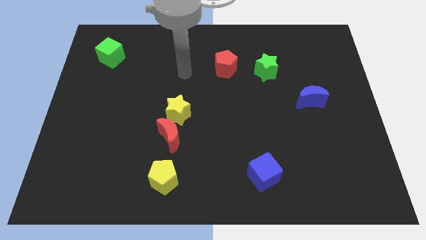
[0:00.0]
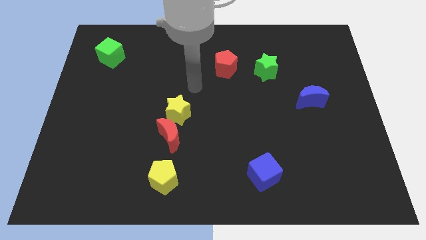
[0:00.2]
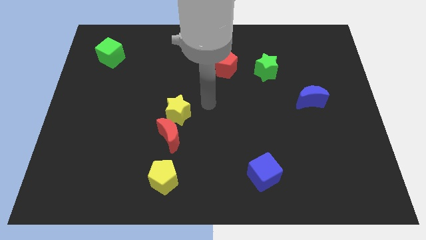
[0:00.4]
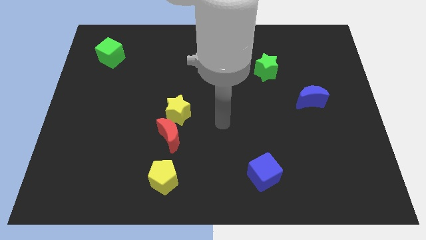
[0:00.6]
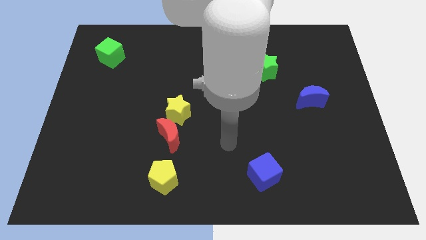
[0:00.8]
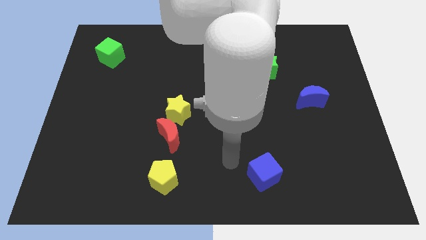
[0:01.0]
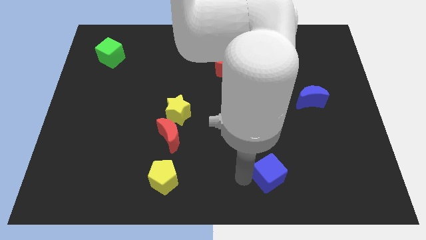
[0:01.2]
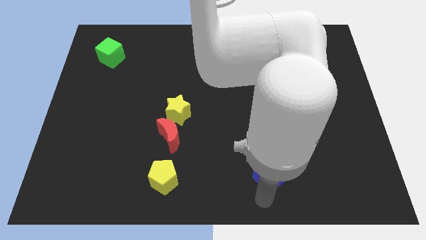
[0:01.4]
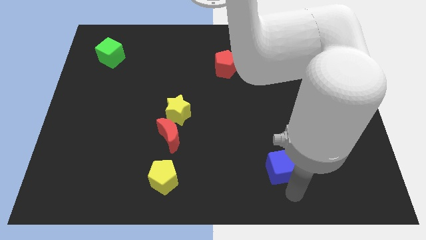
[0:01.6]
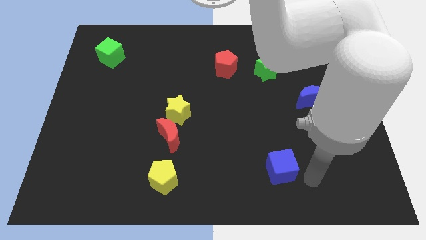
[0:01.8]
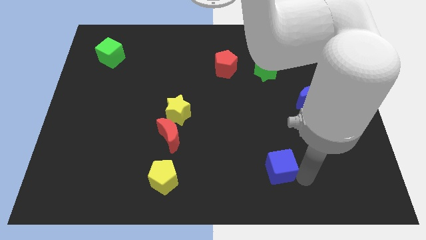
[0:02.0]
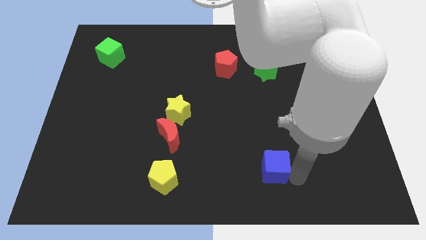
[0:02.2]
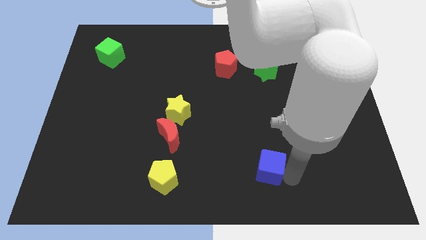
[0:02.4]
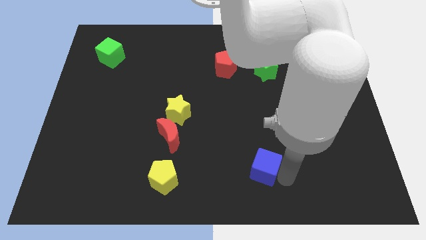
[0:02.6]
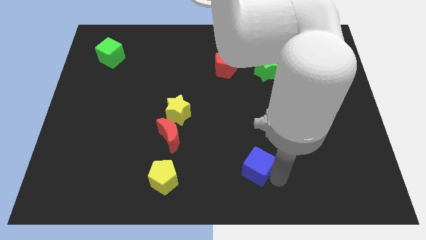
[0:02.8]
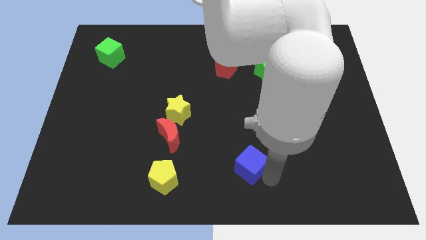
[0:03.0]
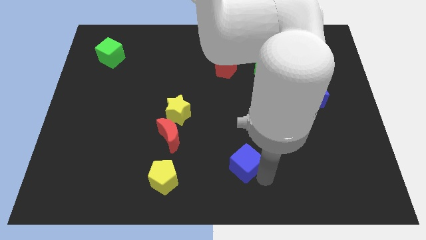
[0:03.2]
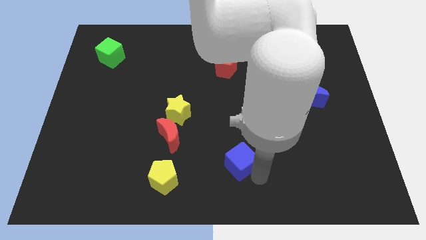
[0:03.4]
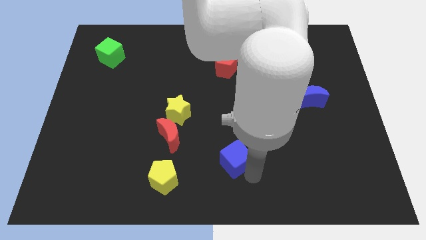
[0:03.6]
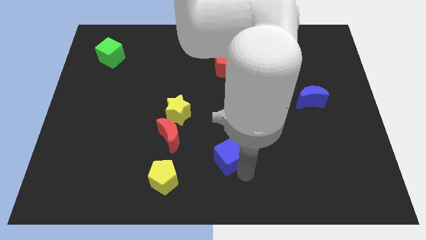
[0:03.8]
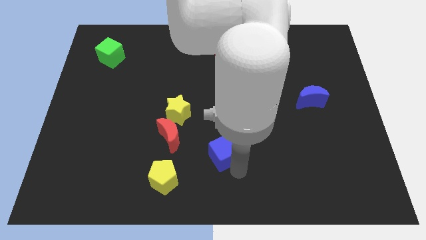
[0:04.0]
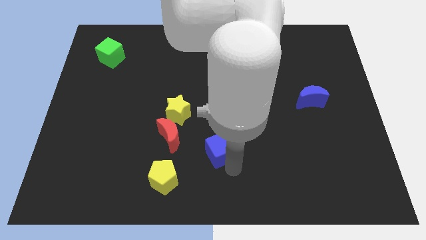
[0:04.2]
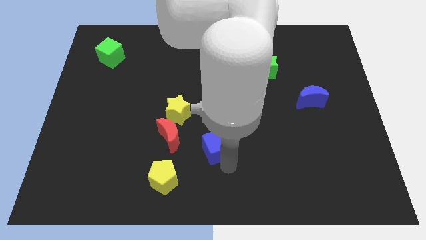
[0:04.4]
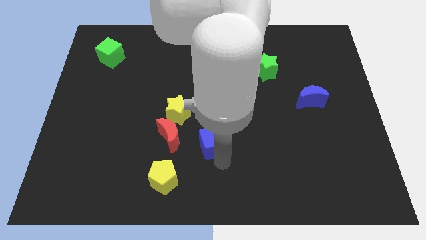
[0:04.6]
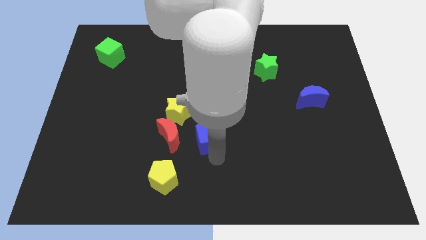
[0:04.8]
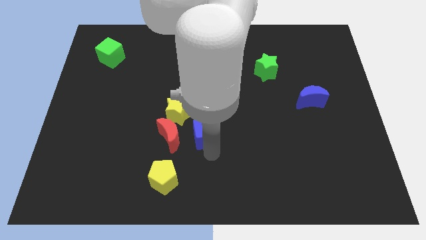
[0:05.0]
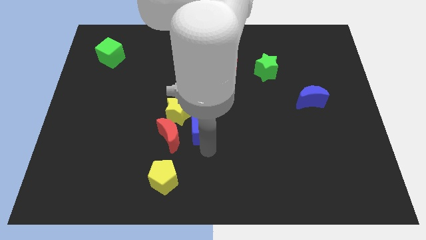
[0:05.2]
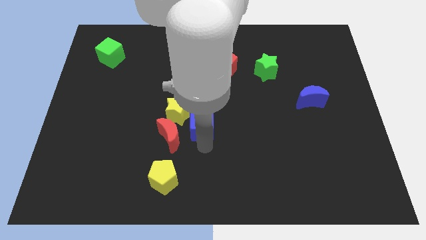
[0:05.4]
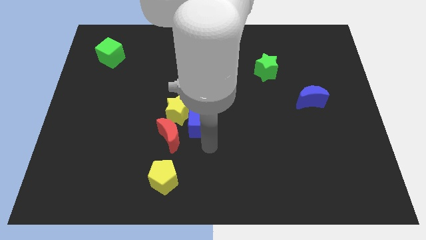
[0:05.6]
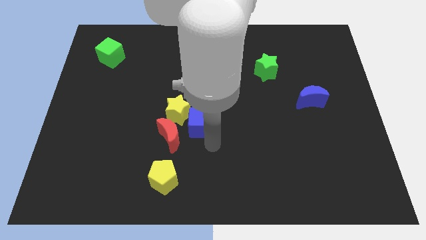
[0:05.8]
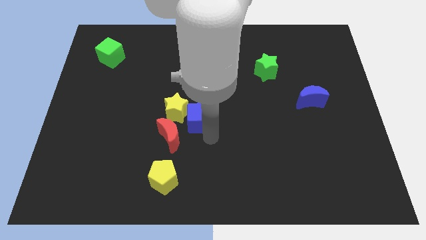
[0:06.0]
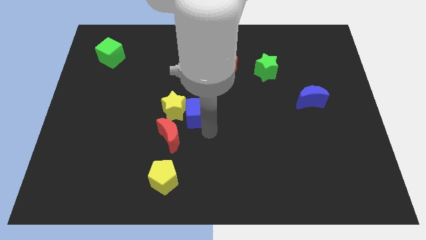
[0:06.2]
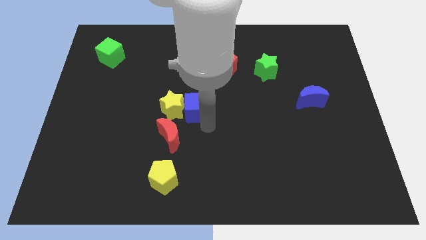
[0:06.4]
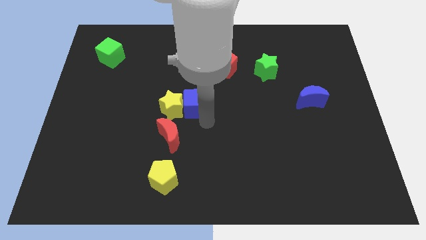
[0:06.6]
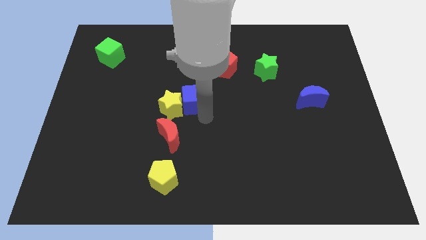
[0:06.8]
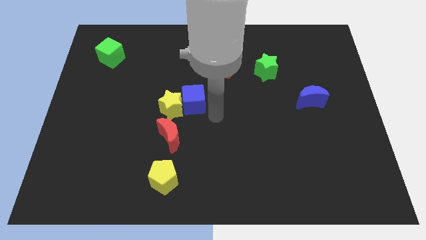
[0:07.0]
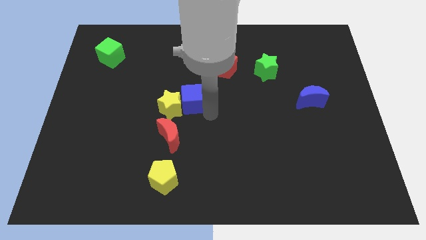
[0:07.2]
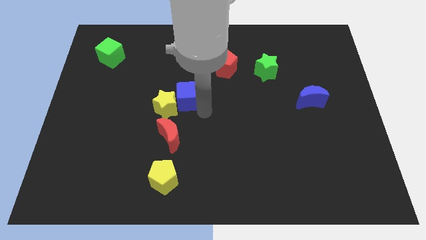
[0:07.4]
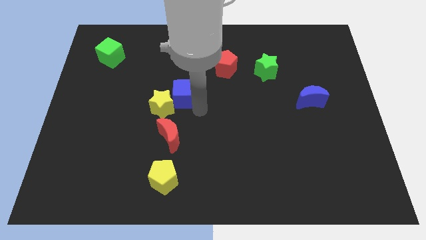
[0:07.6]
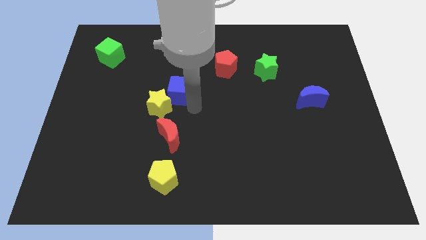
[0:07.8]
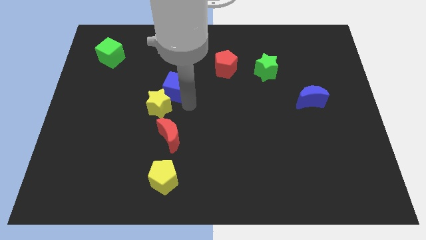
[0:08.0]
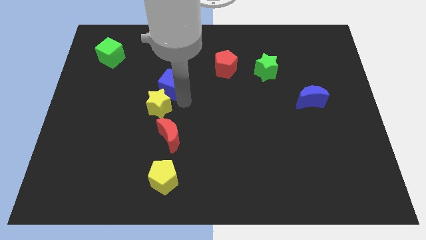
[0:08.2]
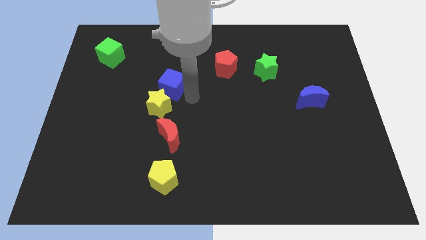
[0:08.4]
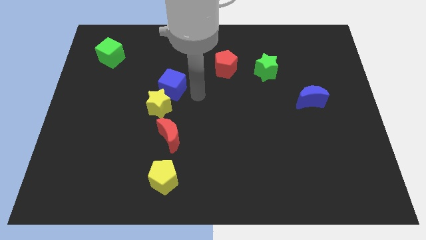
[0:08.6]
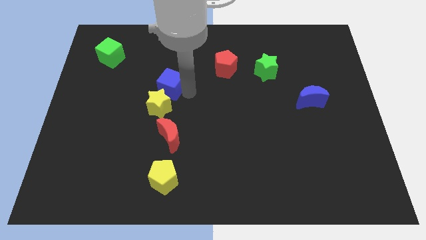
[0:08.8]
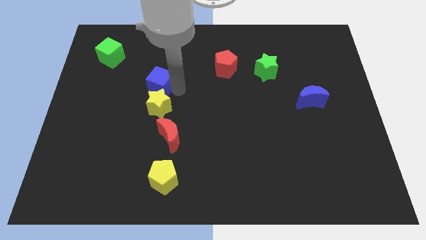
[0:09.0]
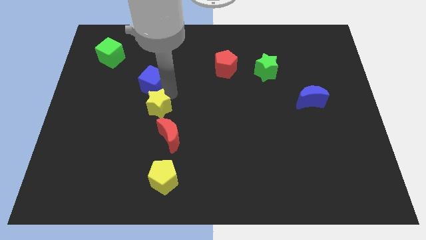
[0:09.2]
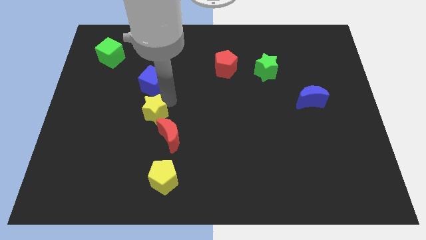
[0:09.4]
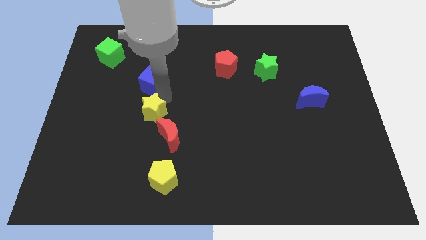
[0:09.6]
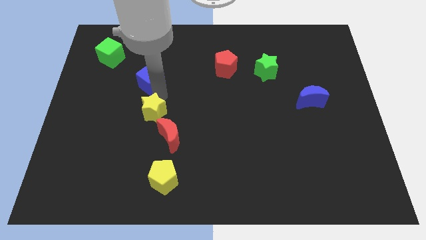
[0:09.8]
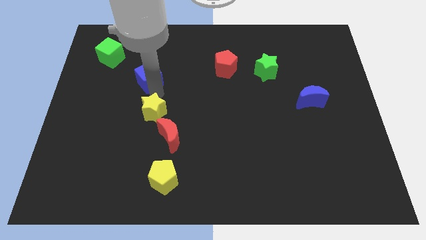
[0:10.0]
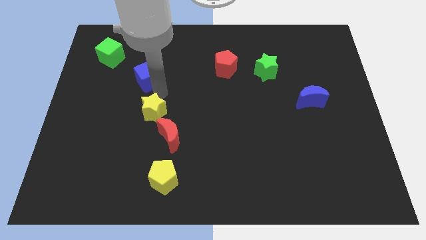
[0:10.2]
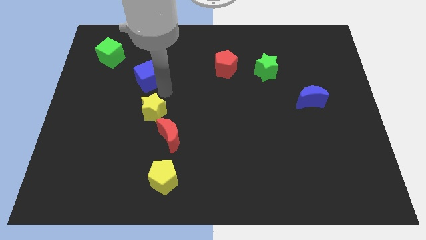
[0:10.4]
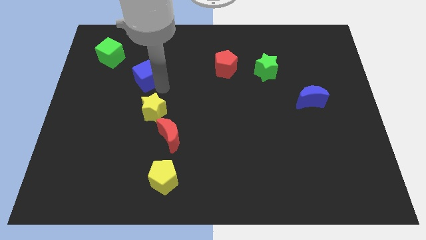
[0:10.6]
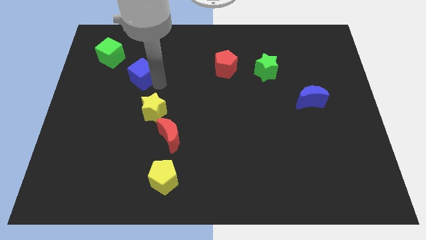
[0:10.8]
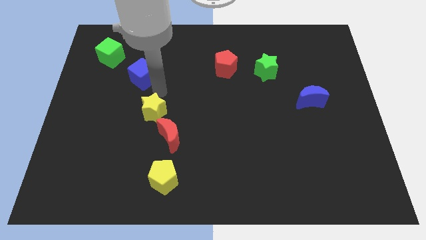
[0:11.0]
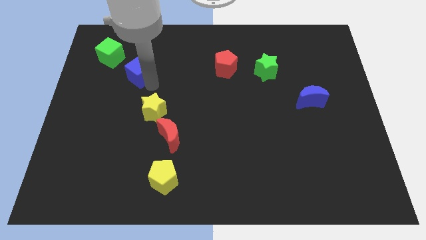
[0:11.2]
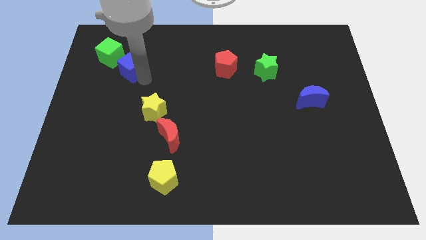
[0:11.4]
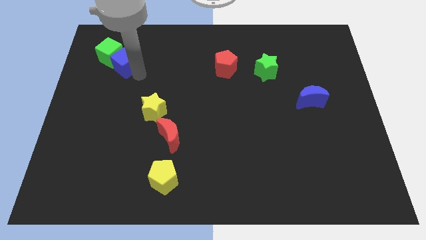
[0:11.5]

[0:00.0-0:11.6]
push the blue cube to the green cube

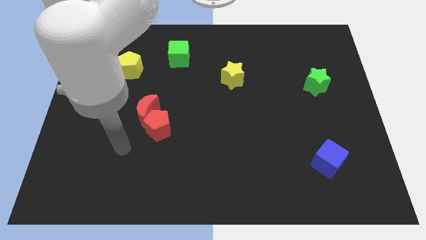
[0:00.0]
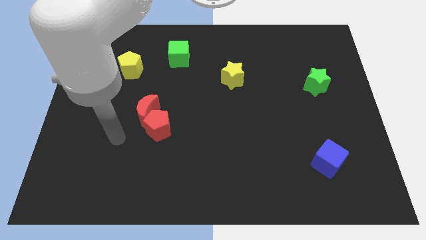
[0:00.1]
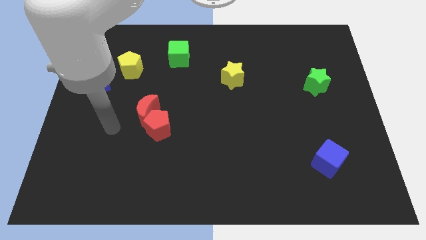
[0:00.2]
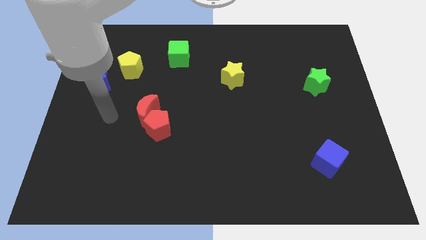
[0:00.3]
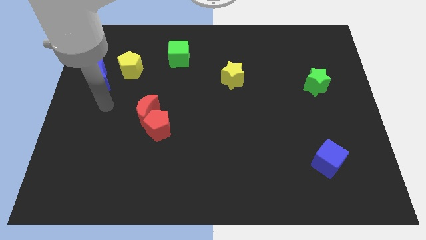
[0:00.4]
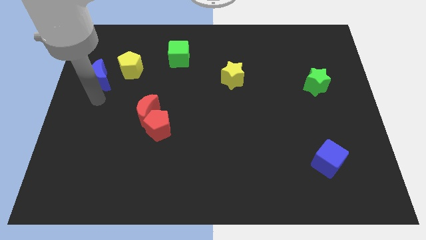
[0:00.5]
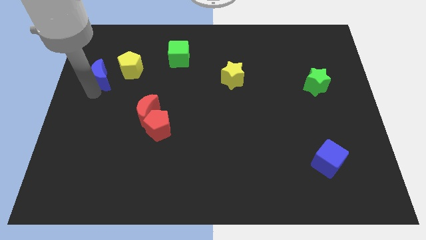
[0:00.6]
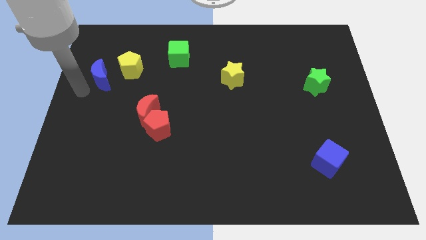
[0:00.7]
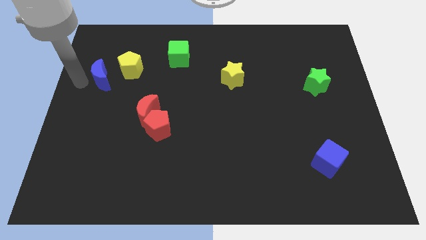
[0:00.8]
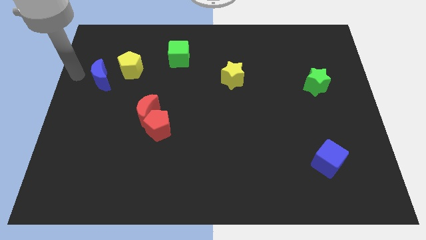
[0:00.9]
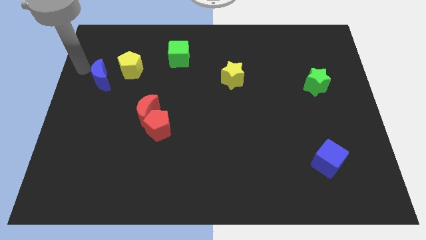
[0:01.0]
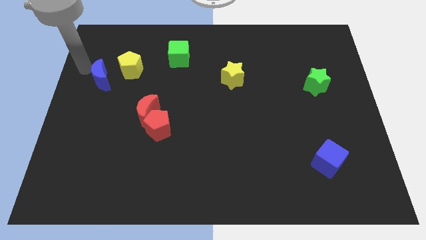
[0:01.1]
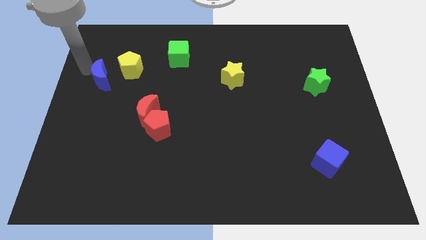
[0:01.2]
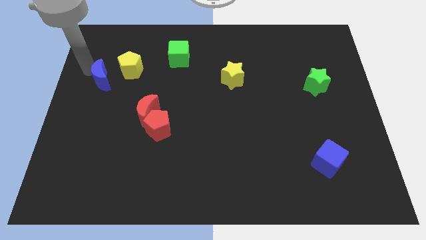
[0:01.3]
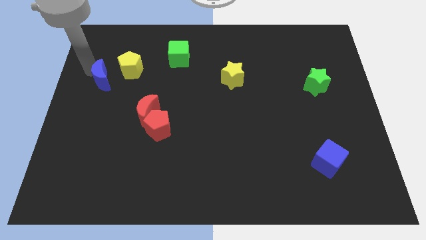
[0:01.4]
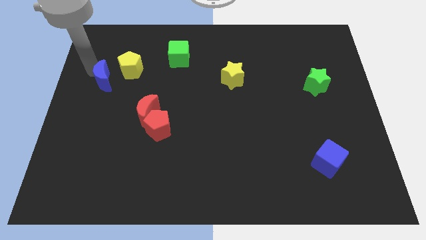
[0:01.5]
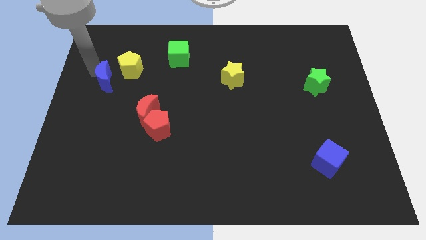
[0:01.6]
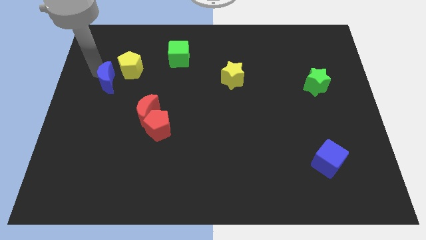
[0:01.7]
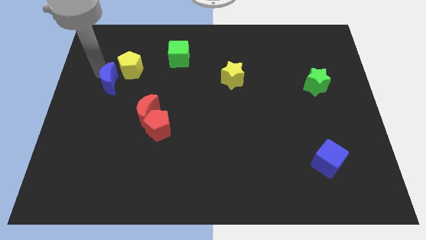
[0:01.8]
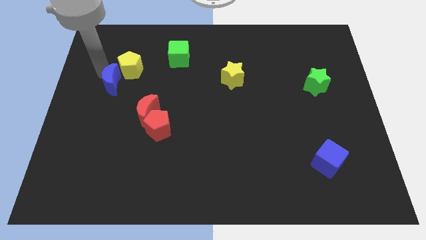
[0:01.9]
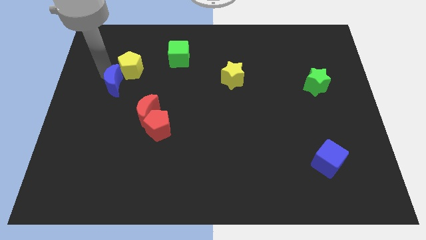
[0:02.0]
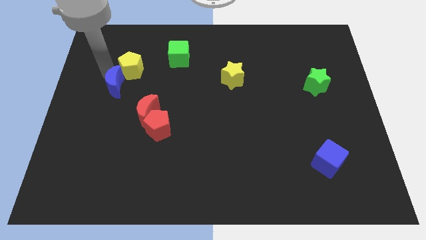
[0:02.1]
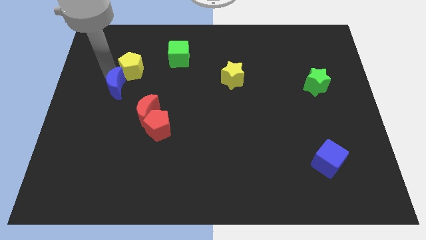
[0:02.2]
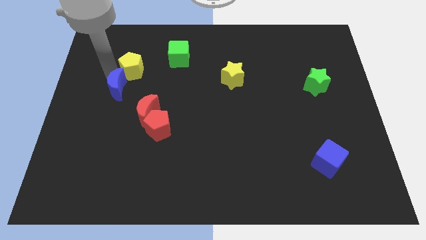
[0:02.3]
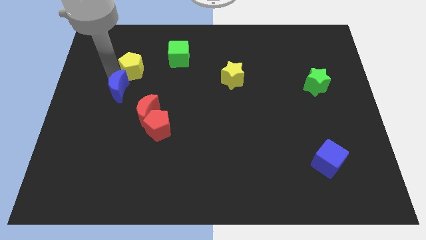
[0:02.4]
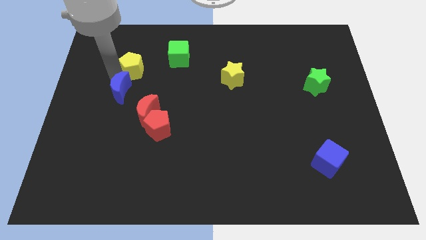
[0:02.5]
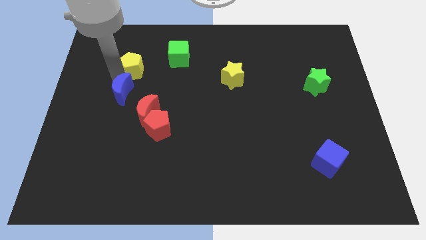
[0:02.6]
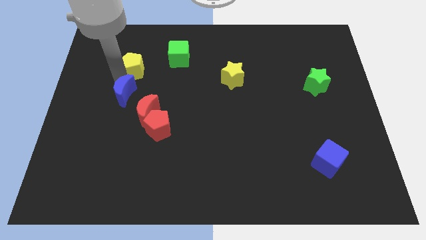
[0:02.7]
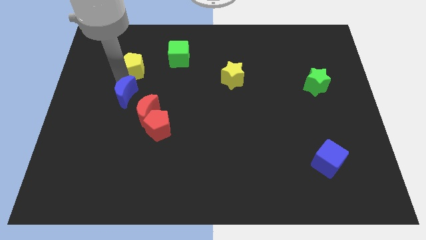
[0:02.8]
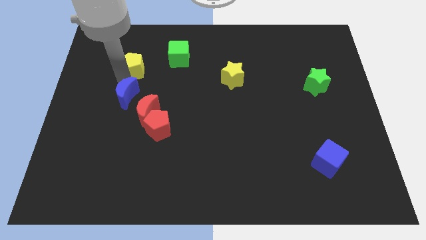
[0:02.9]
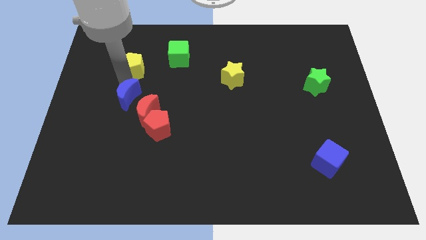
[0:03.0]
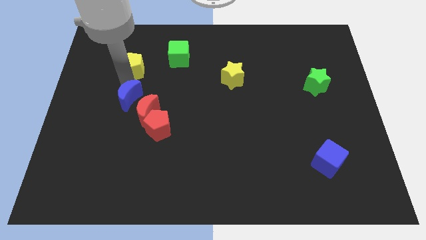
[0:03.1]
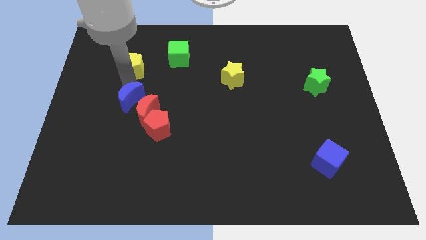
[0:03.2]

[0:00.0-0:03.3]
push the blue moon to the red moon
